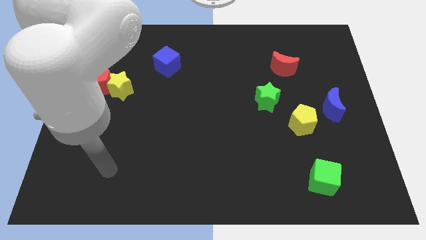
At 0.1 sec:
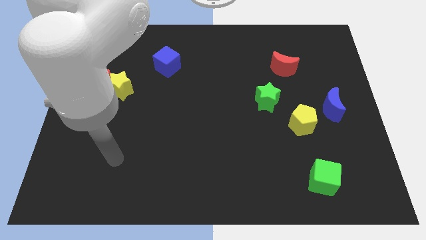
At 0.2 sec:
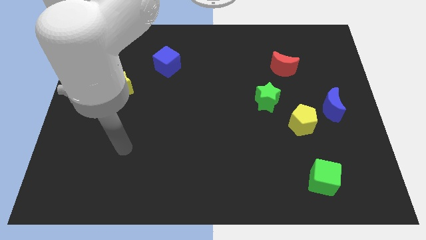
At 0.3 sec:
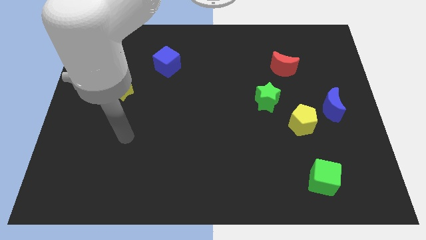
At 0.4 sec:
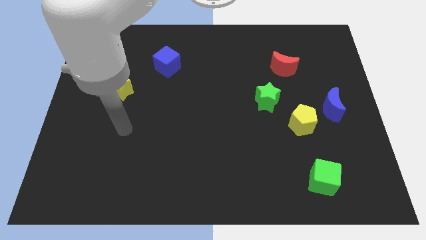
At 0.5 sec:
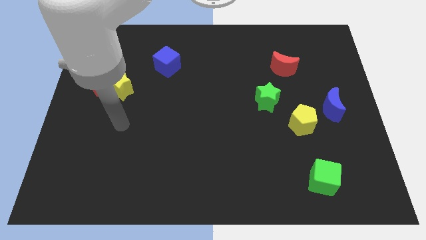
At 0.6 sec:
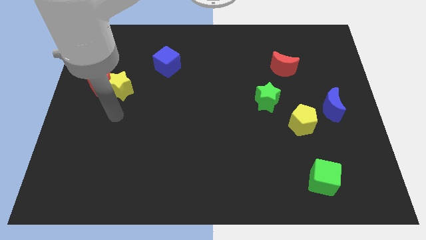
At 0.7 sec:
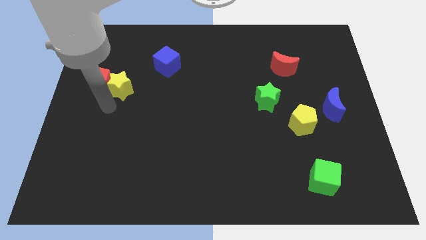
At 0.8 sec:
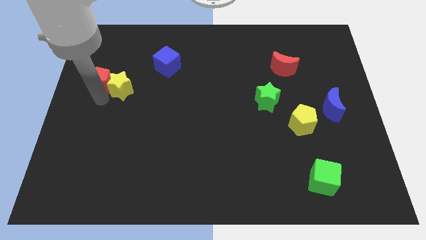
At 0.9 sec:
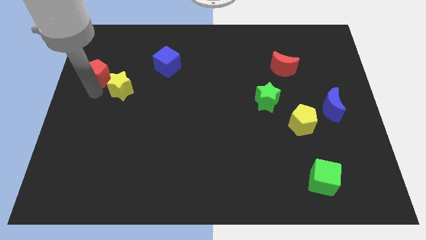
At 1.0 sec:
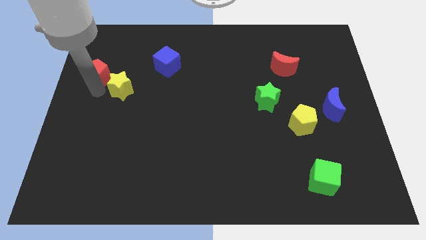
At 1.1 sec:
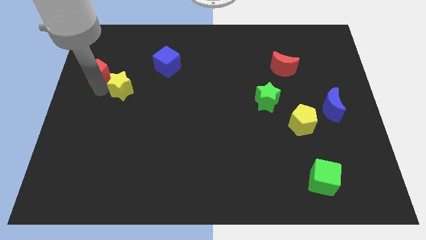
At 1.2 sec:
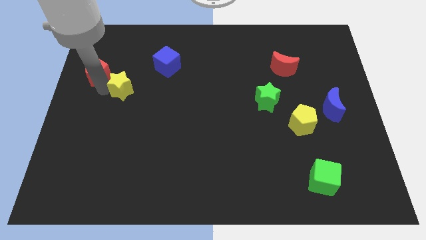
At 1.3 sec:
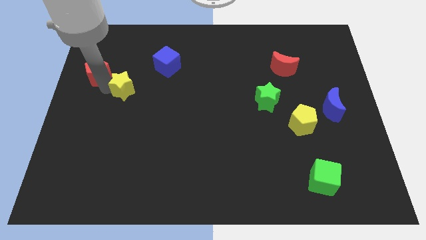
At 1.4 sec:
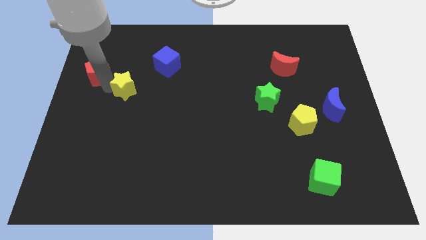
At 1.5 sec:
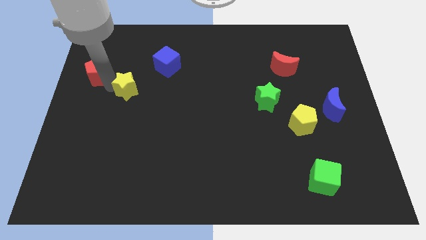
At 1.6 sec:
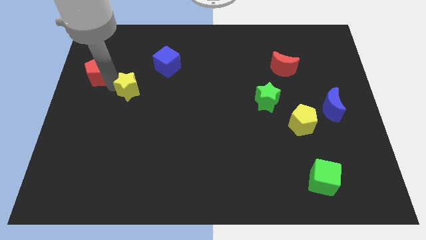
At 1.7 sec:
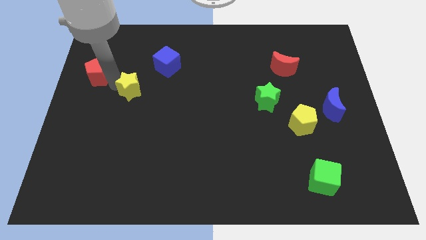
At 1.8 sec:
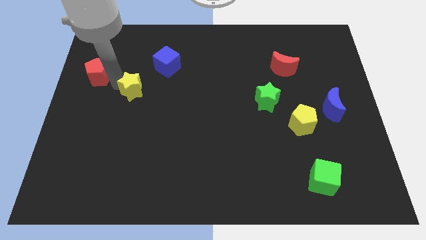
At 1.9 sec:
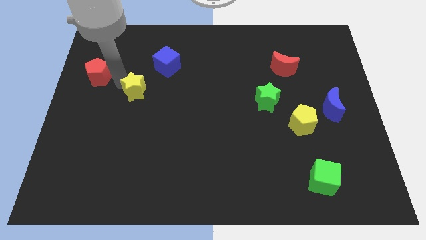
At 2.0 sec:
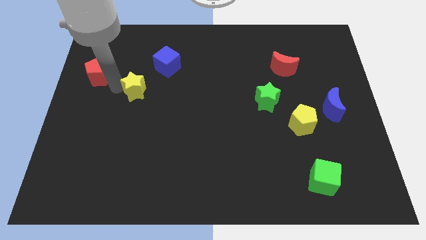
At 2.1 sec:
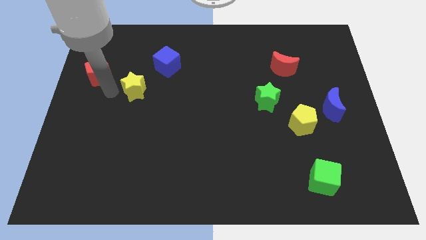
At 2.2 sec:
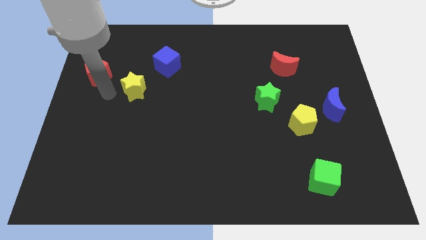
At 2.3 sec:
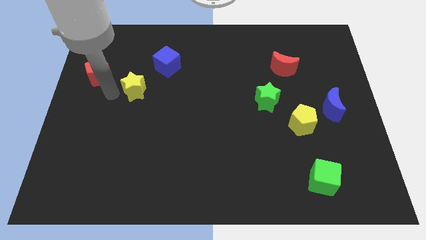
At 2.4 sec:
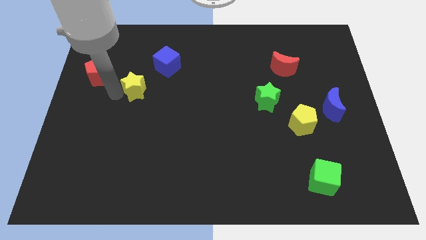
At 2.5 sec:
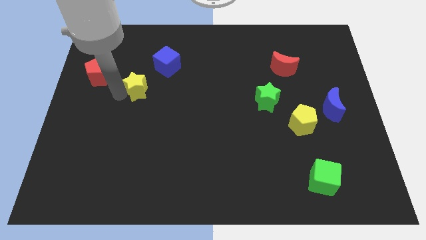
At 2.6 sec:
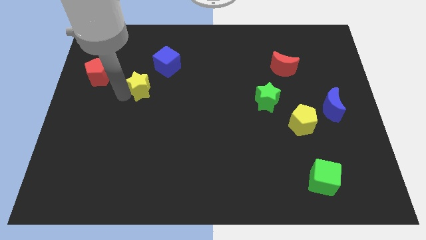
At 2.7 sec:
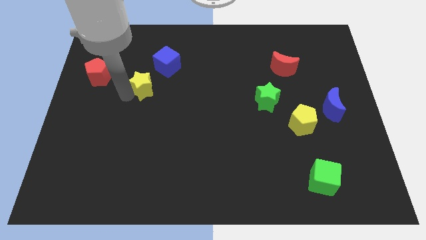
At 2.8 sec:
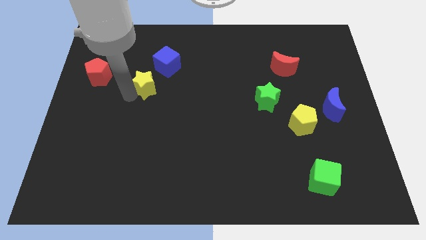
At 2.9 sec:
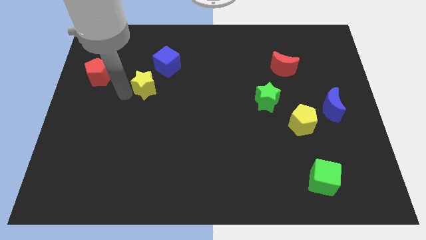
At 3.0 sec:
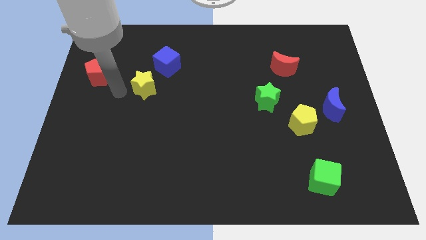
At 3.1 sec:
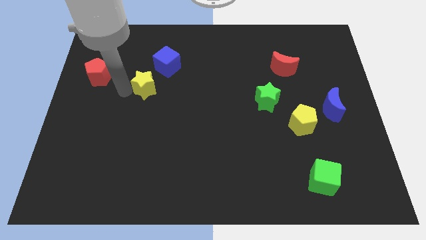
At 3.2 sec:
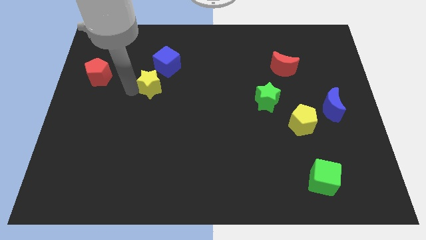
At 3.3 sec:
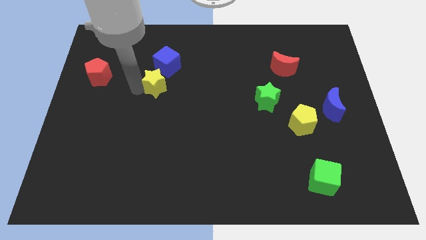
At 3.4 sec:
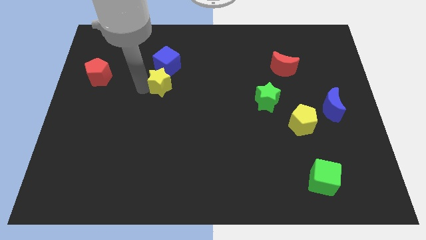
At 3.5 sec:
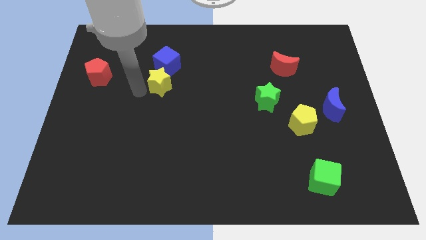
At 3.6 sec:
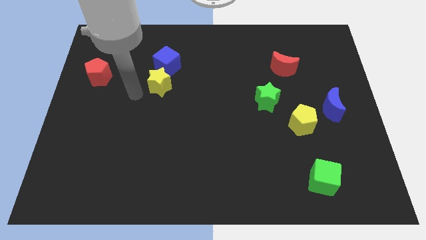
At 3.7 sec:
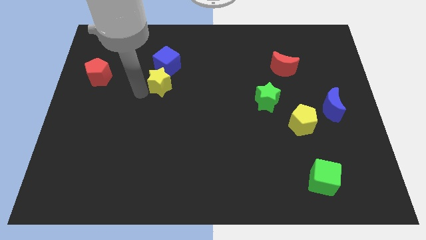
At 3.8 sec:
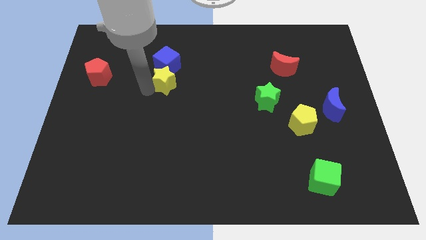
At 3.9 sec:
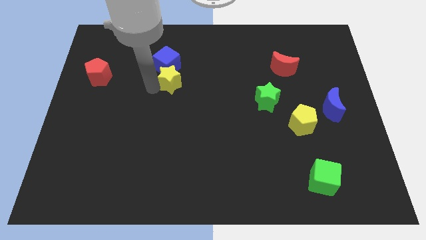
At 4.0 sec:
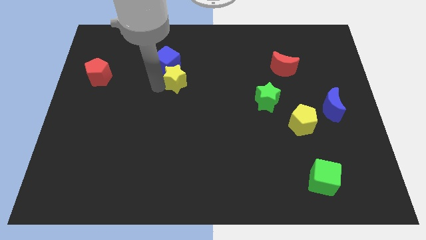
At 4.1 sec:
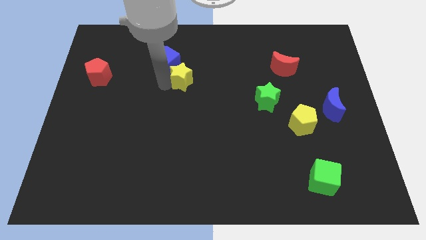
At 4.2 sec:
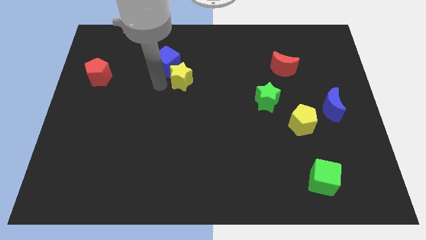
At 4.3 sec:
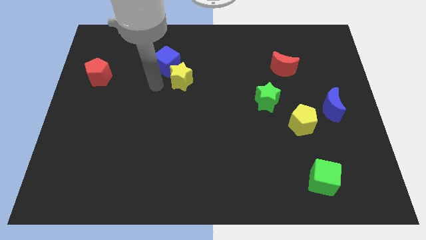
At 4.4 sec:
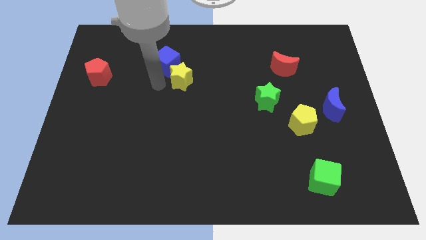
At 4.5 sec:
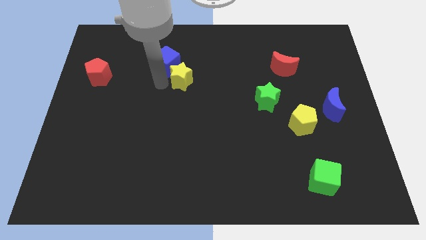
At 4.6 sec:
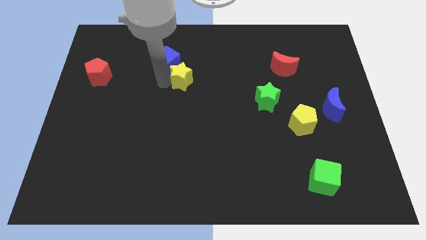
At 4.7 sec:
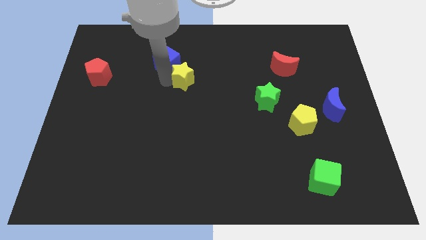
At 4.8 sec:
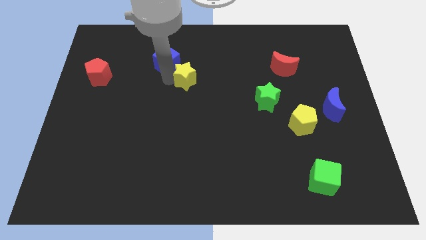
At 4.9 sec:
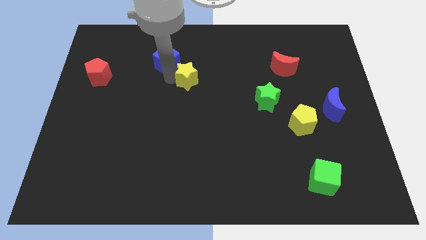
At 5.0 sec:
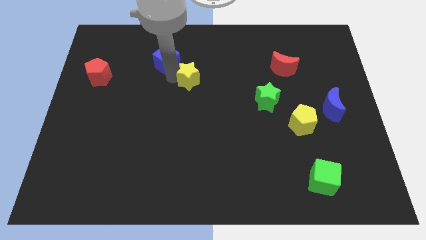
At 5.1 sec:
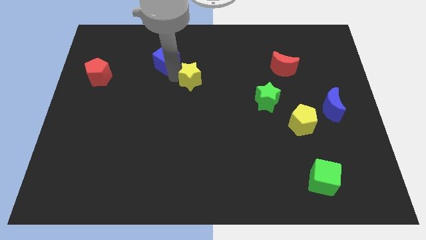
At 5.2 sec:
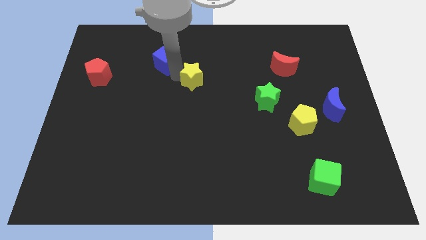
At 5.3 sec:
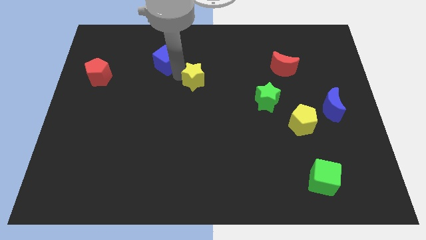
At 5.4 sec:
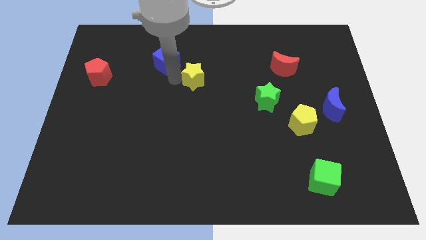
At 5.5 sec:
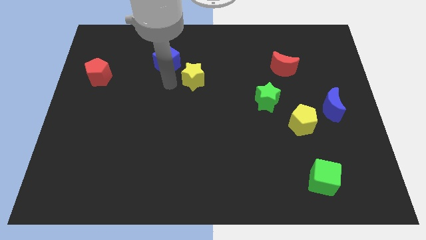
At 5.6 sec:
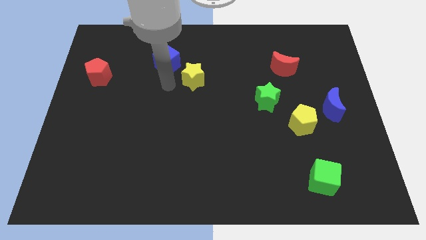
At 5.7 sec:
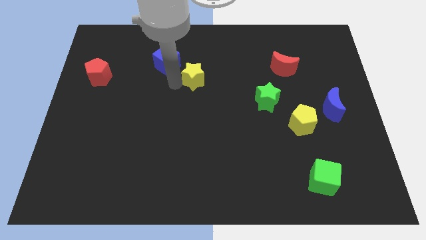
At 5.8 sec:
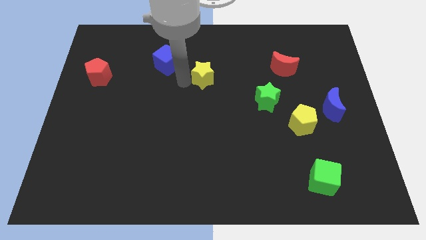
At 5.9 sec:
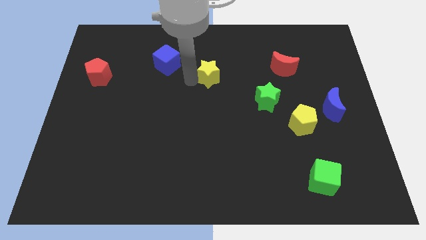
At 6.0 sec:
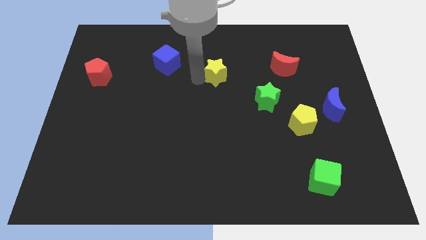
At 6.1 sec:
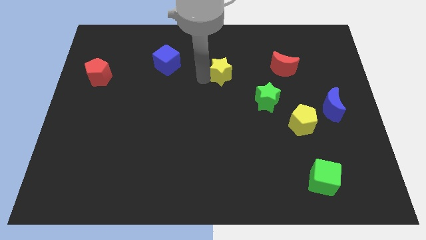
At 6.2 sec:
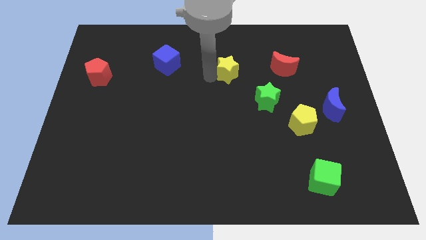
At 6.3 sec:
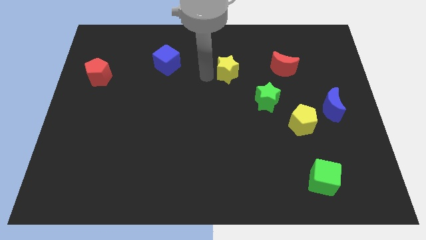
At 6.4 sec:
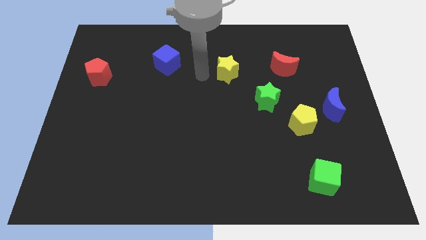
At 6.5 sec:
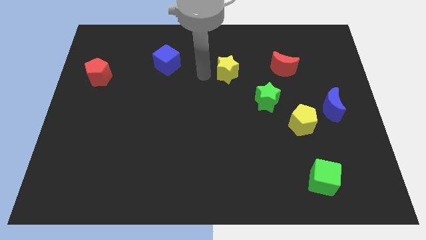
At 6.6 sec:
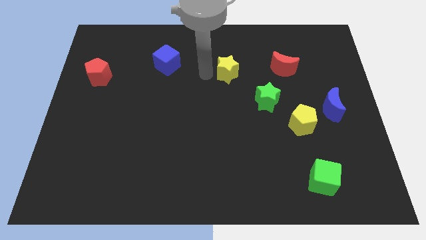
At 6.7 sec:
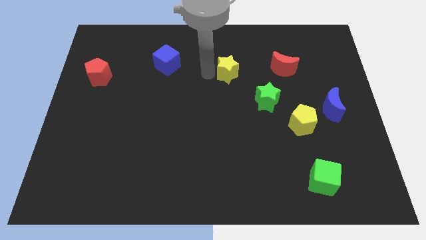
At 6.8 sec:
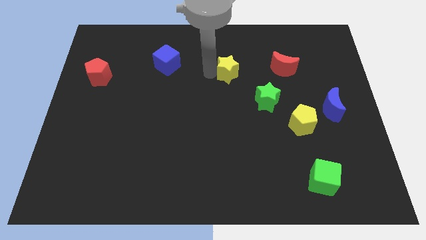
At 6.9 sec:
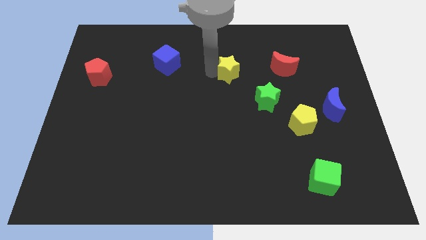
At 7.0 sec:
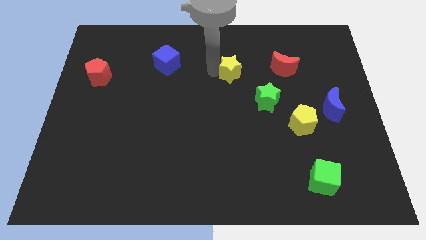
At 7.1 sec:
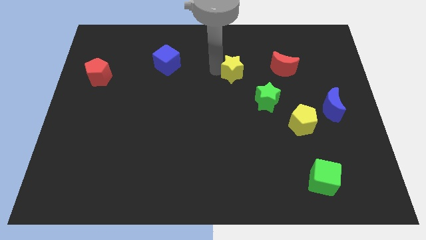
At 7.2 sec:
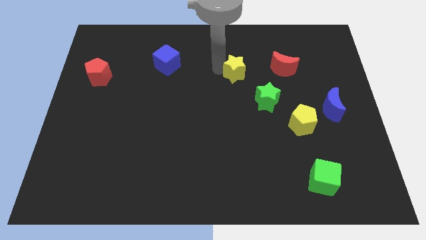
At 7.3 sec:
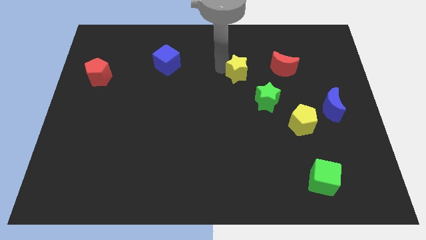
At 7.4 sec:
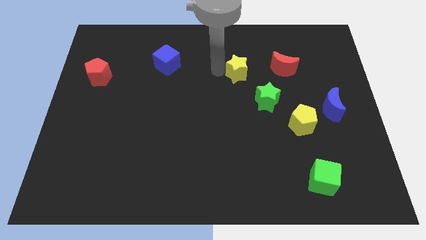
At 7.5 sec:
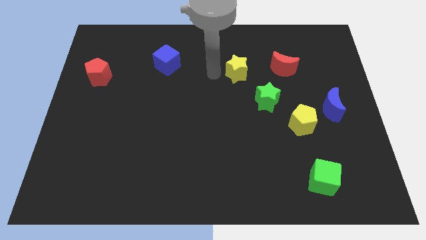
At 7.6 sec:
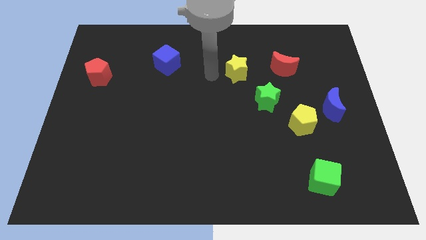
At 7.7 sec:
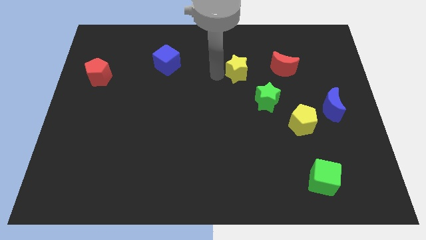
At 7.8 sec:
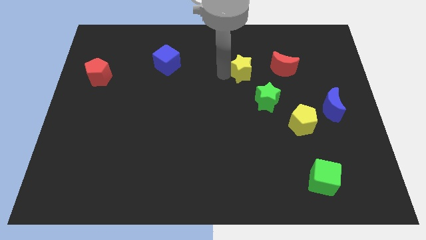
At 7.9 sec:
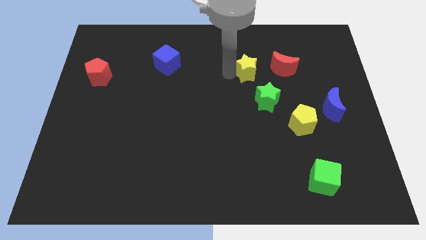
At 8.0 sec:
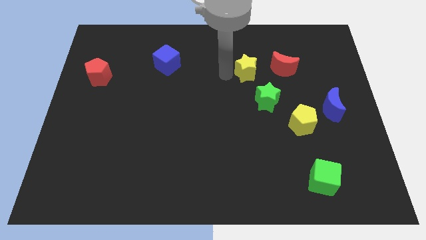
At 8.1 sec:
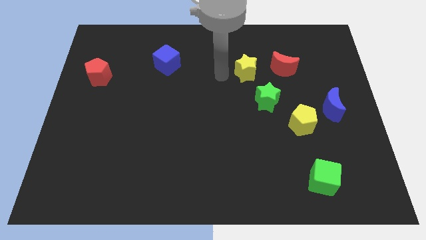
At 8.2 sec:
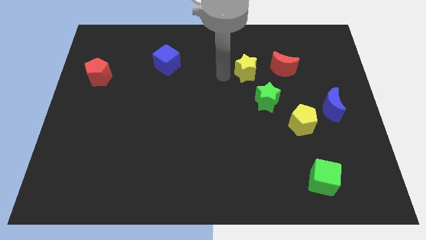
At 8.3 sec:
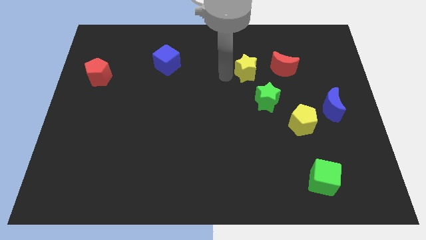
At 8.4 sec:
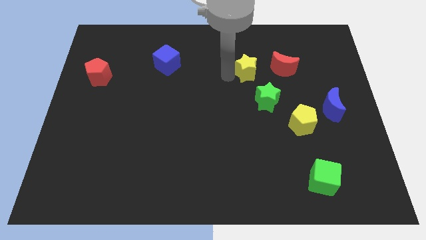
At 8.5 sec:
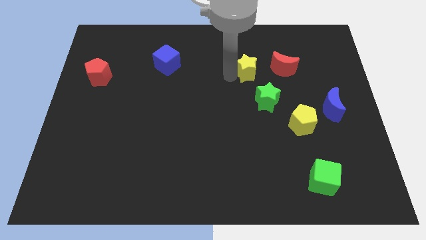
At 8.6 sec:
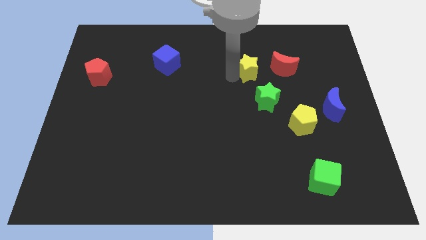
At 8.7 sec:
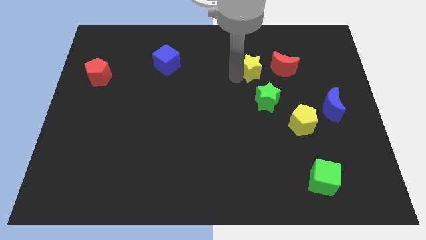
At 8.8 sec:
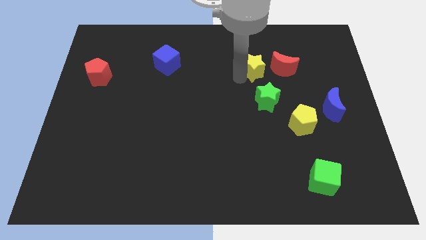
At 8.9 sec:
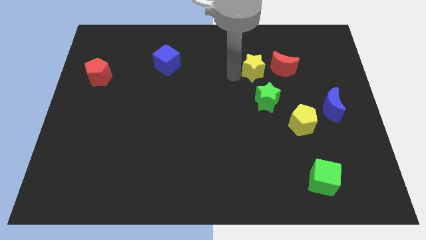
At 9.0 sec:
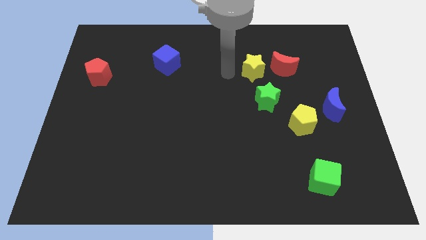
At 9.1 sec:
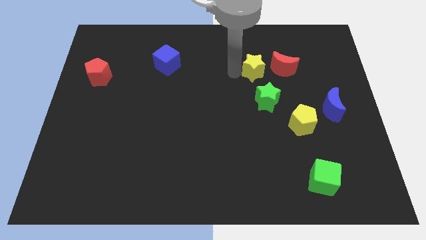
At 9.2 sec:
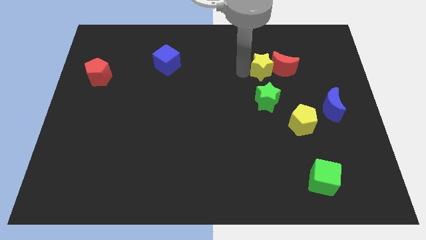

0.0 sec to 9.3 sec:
move the yellow star close to the red moon
